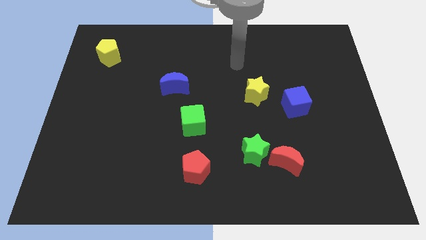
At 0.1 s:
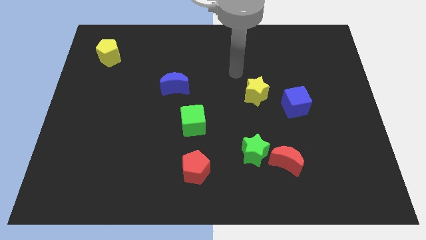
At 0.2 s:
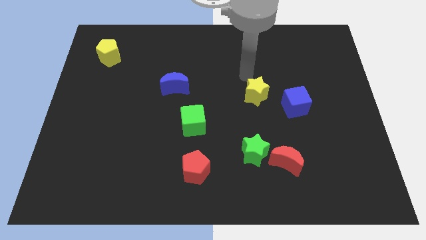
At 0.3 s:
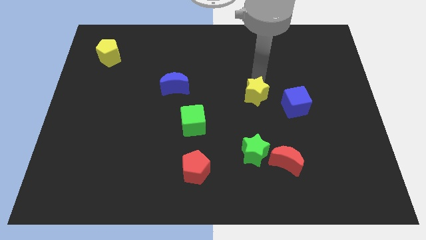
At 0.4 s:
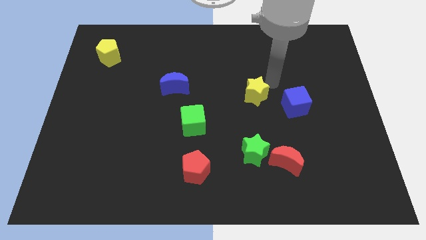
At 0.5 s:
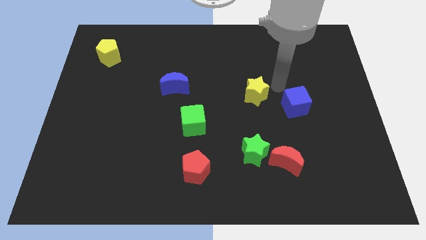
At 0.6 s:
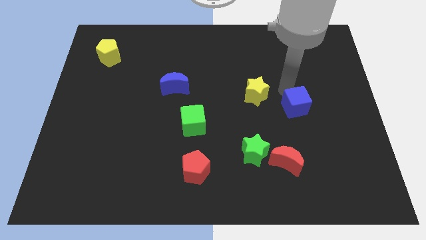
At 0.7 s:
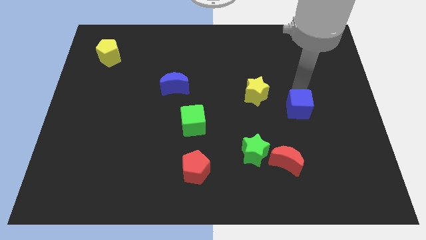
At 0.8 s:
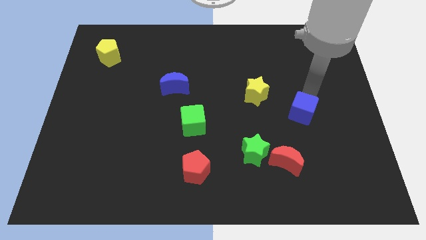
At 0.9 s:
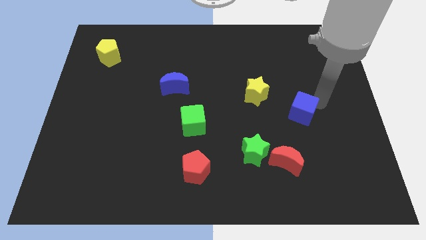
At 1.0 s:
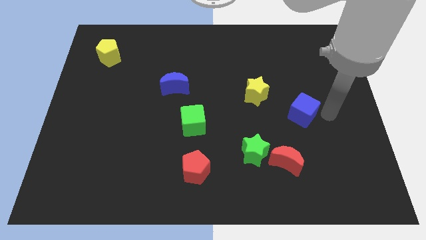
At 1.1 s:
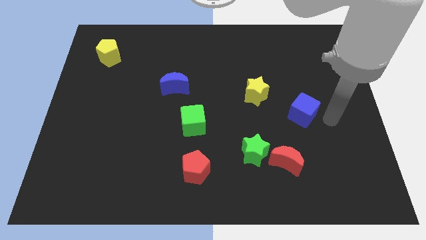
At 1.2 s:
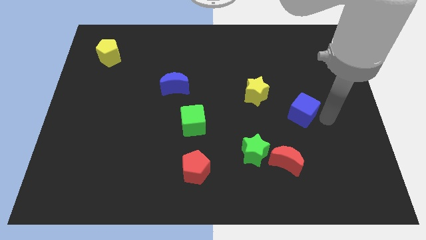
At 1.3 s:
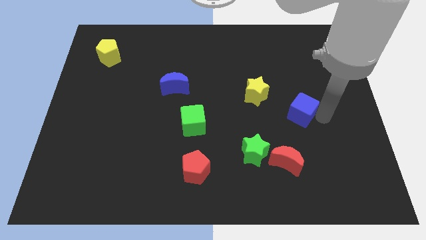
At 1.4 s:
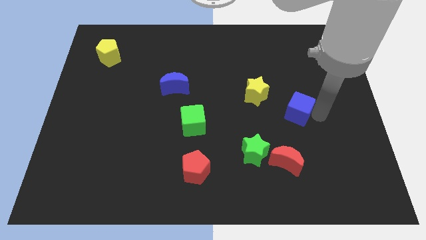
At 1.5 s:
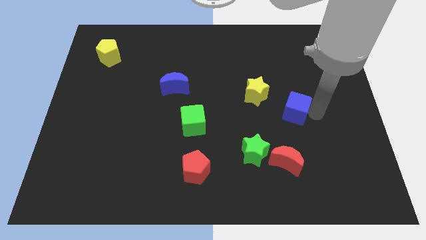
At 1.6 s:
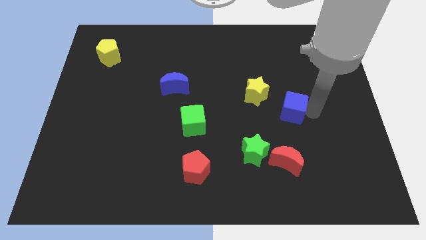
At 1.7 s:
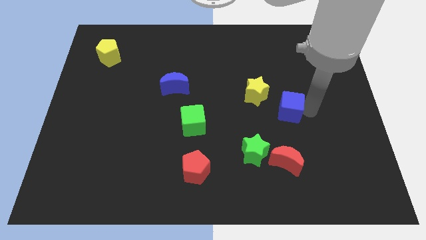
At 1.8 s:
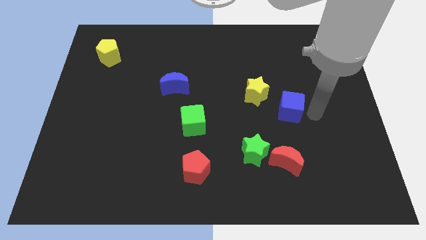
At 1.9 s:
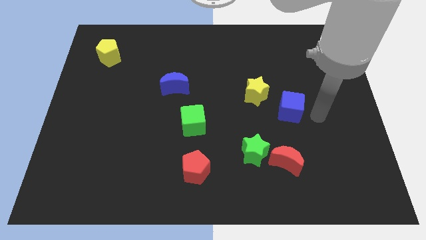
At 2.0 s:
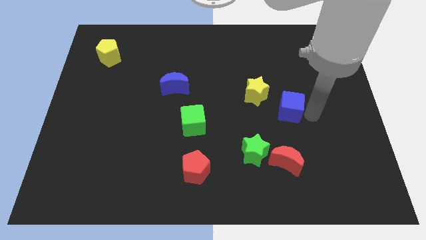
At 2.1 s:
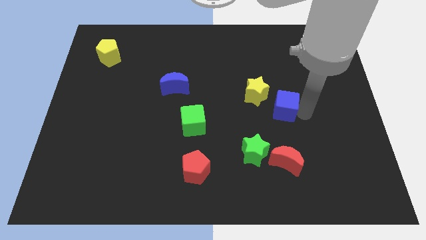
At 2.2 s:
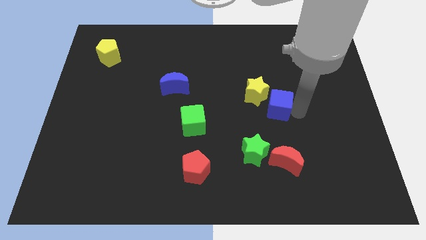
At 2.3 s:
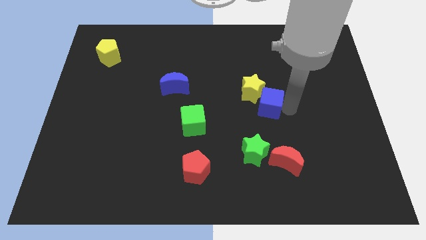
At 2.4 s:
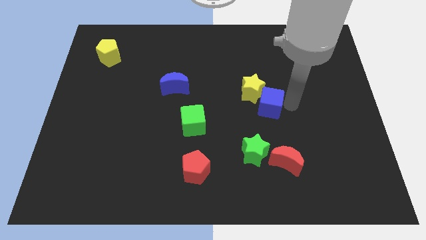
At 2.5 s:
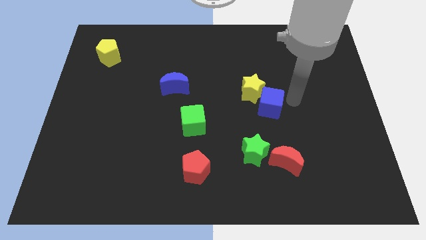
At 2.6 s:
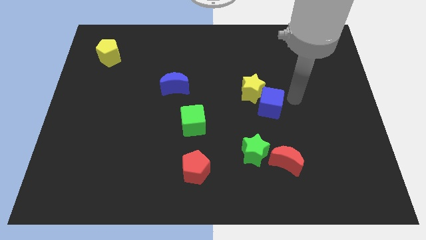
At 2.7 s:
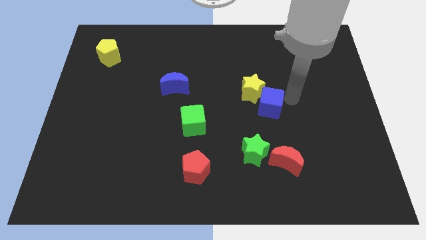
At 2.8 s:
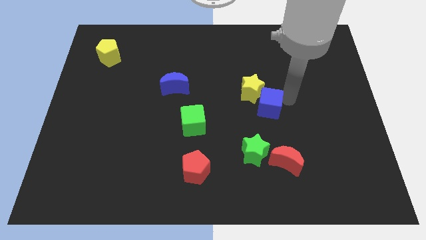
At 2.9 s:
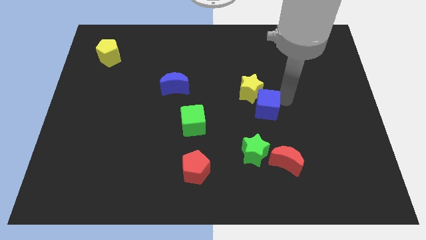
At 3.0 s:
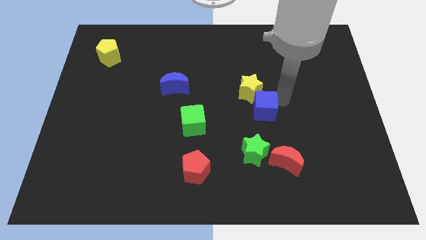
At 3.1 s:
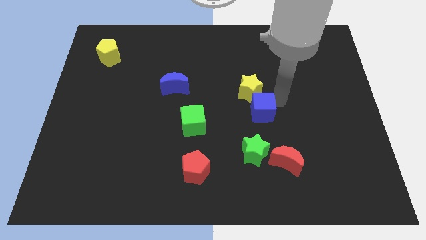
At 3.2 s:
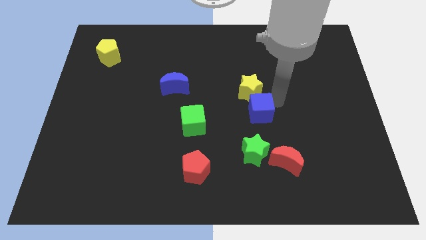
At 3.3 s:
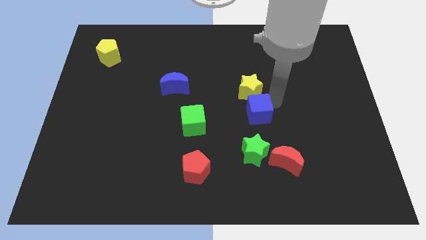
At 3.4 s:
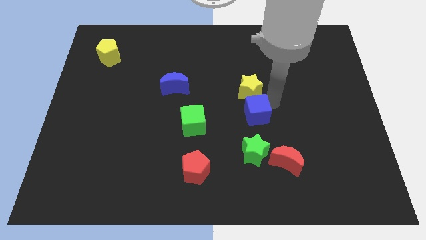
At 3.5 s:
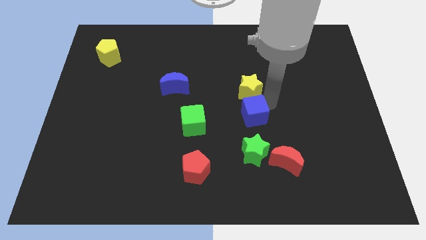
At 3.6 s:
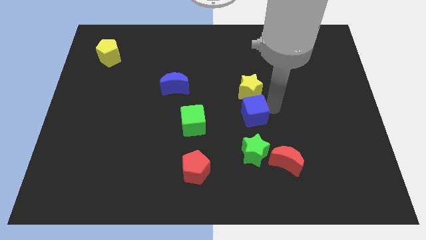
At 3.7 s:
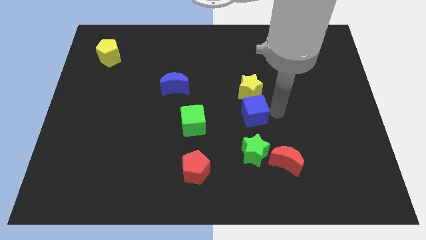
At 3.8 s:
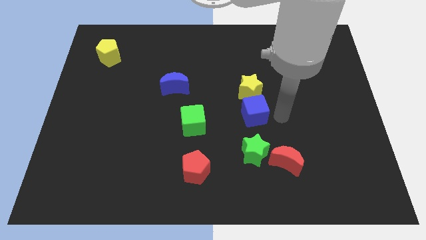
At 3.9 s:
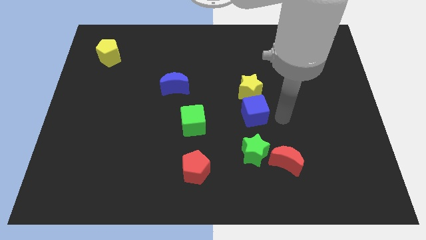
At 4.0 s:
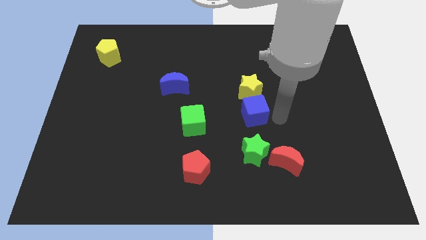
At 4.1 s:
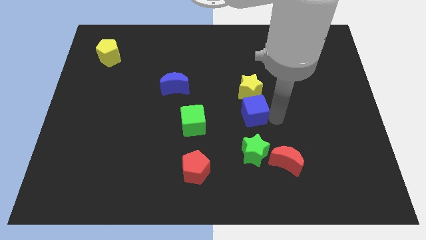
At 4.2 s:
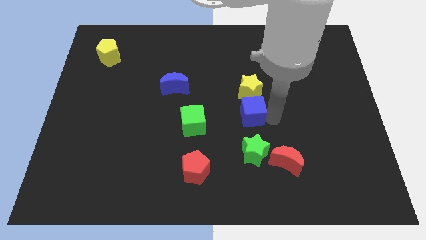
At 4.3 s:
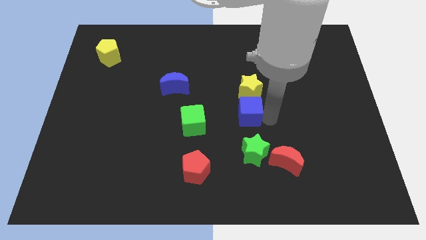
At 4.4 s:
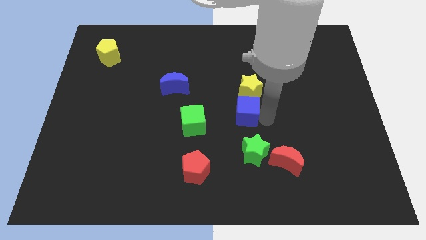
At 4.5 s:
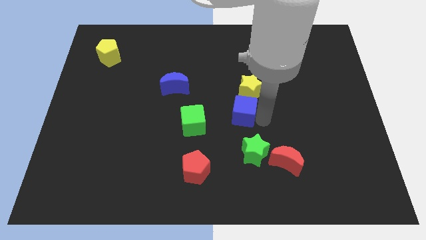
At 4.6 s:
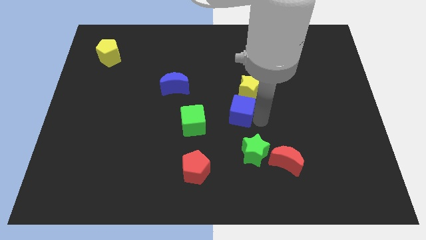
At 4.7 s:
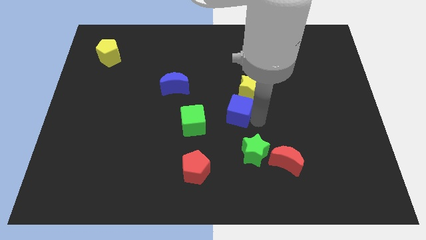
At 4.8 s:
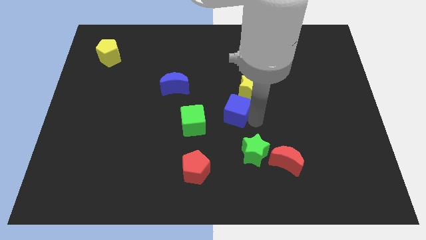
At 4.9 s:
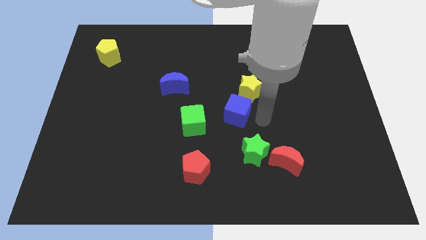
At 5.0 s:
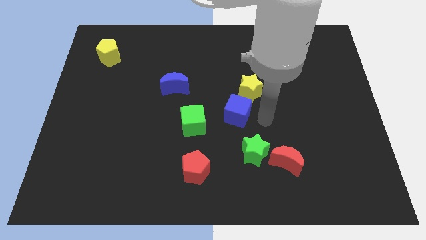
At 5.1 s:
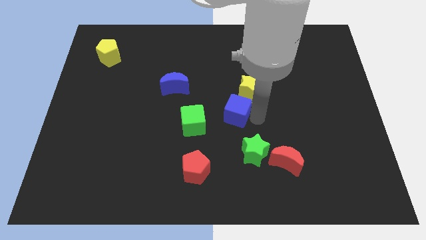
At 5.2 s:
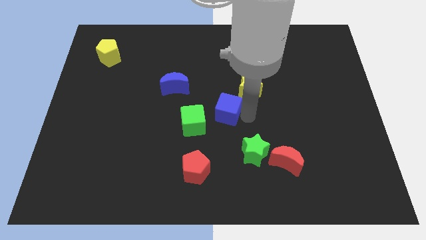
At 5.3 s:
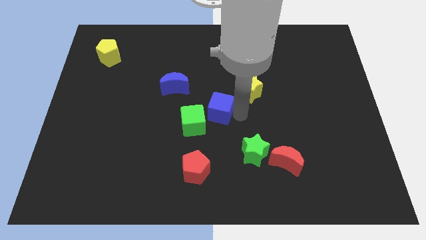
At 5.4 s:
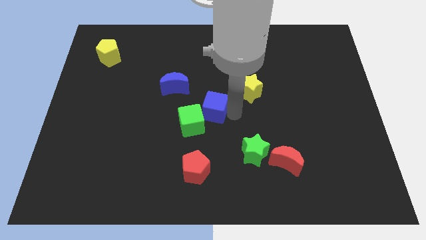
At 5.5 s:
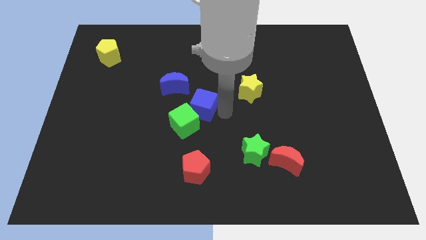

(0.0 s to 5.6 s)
move the blue cube left

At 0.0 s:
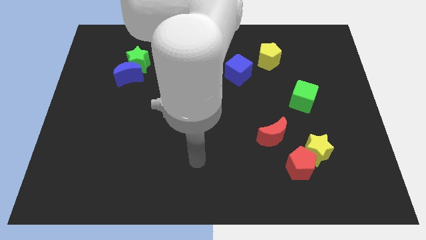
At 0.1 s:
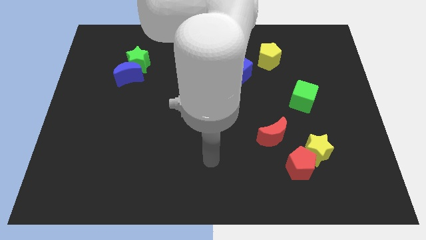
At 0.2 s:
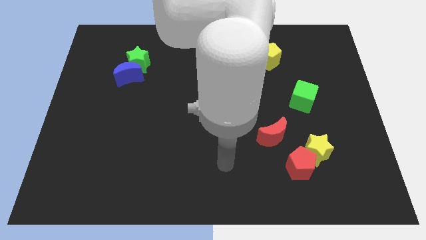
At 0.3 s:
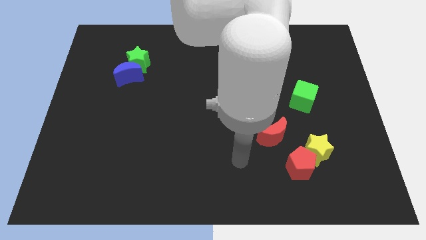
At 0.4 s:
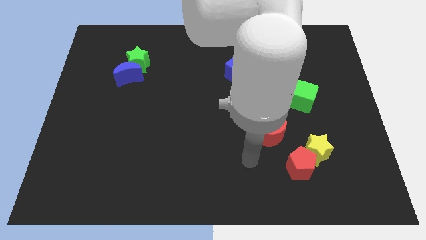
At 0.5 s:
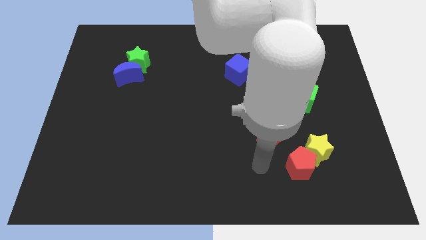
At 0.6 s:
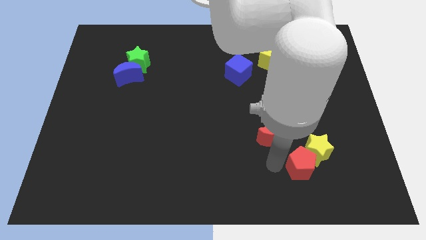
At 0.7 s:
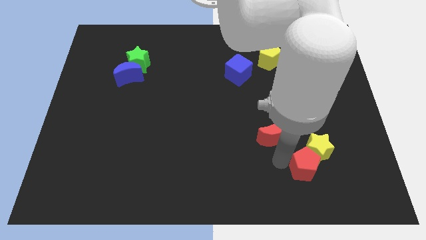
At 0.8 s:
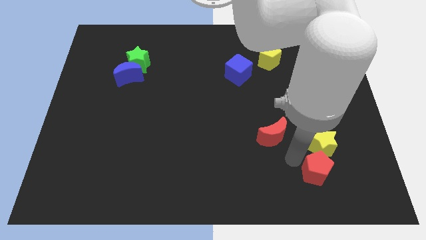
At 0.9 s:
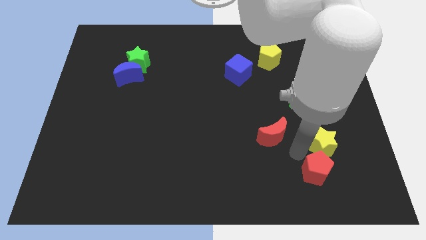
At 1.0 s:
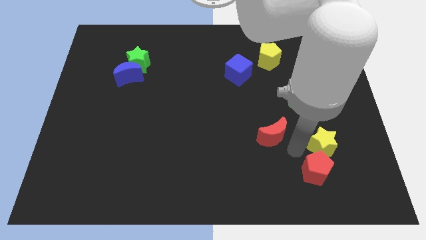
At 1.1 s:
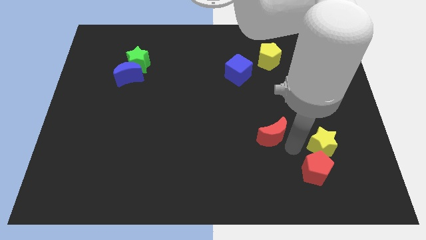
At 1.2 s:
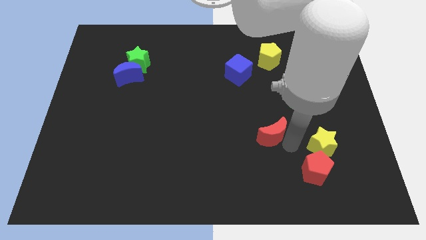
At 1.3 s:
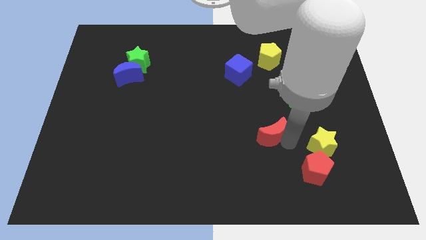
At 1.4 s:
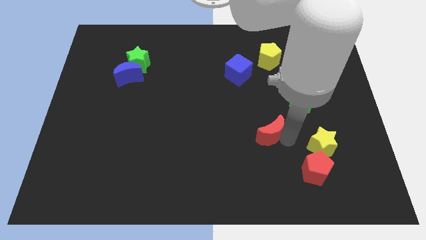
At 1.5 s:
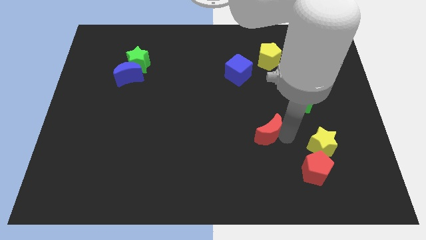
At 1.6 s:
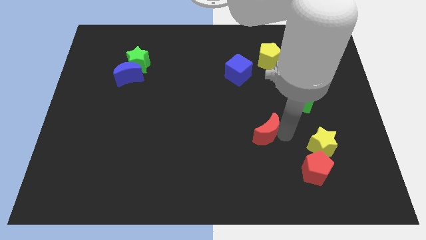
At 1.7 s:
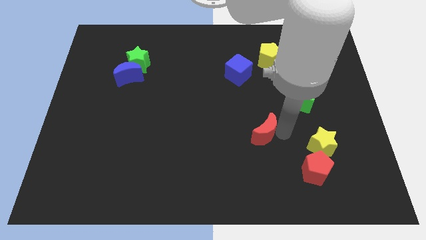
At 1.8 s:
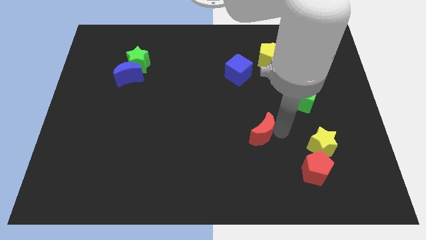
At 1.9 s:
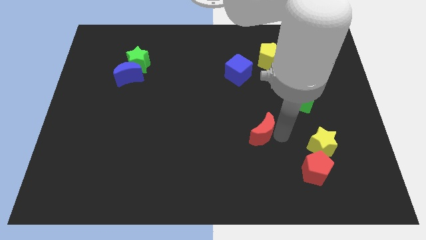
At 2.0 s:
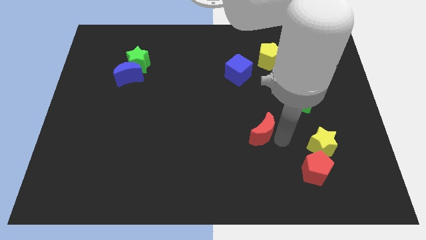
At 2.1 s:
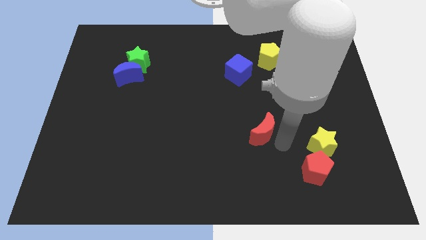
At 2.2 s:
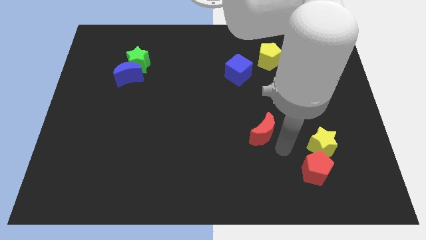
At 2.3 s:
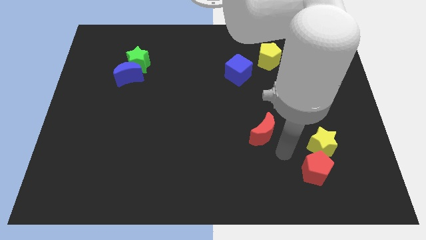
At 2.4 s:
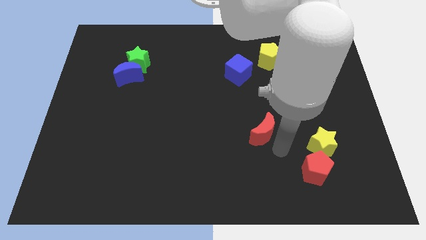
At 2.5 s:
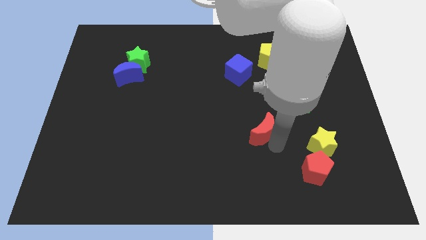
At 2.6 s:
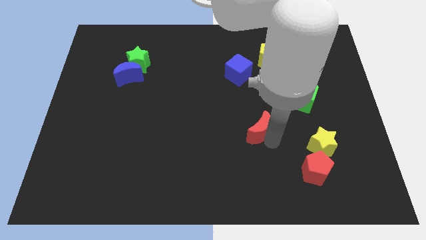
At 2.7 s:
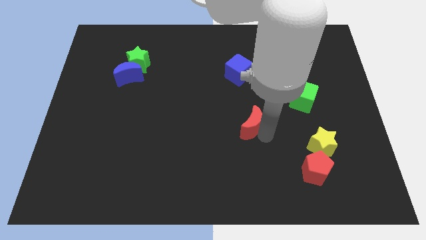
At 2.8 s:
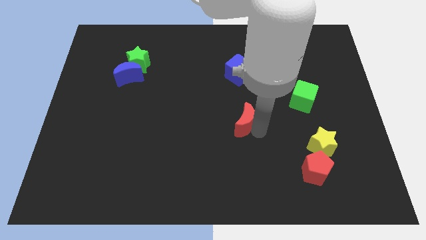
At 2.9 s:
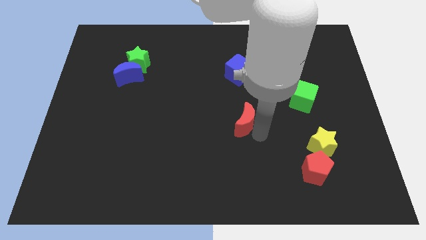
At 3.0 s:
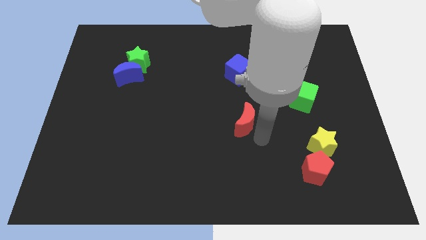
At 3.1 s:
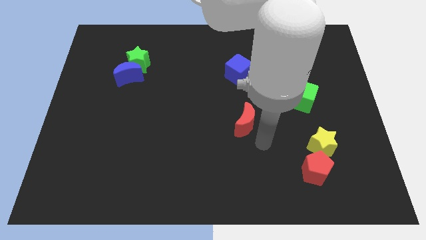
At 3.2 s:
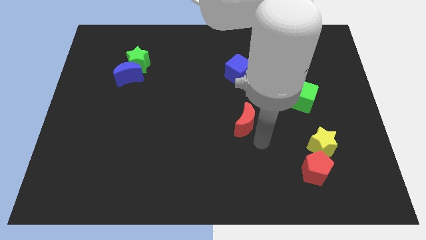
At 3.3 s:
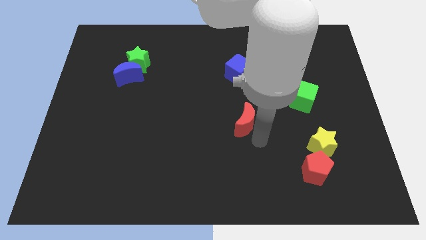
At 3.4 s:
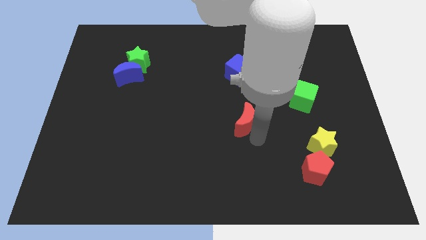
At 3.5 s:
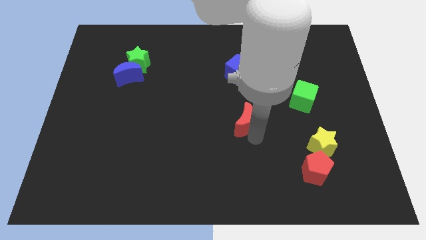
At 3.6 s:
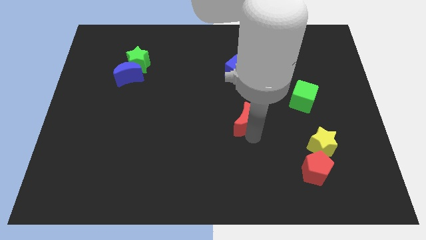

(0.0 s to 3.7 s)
slide the red moon upwards and left diagonally a little
